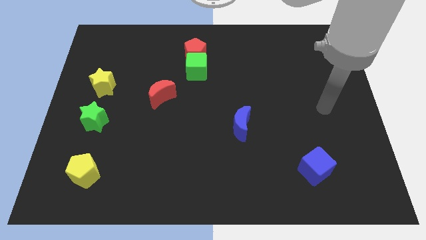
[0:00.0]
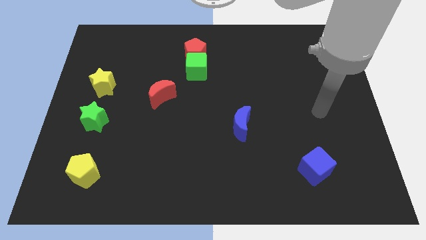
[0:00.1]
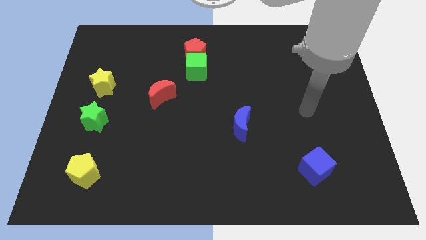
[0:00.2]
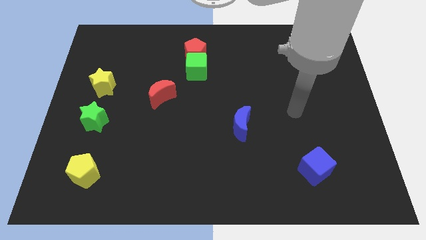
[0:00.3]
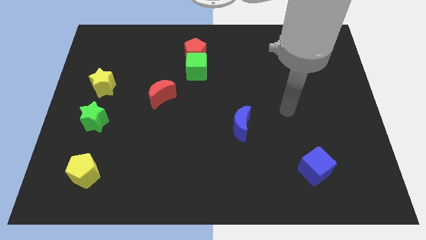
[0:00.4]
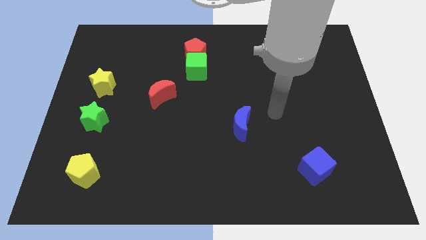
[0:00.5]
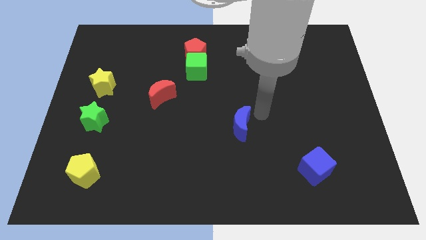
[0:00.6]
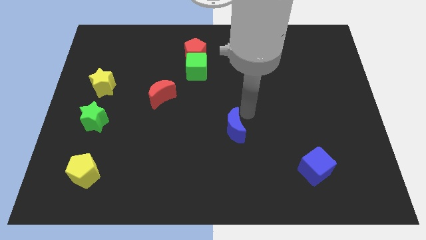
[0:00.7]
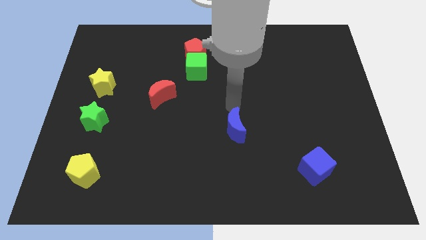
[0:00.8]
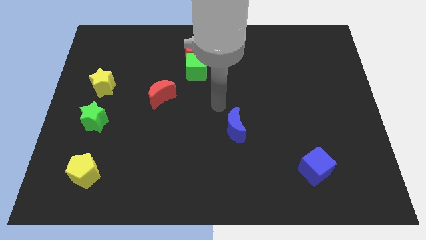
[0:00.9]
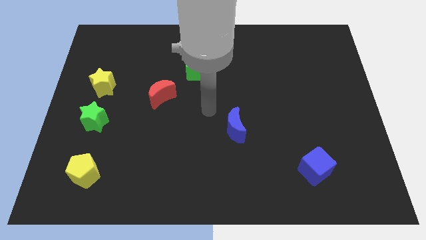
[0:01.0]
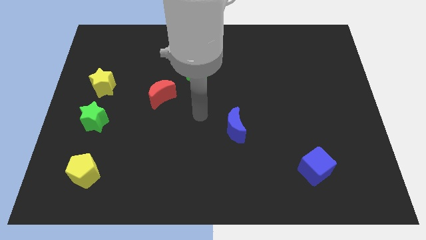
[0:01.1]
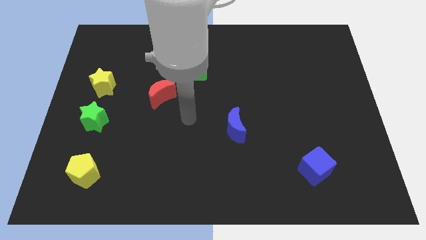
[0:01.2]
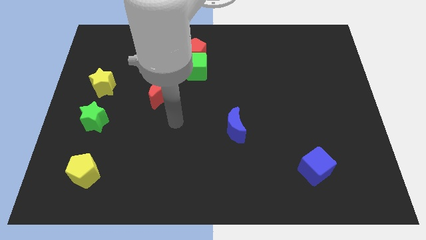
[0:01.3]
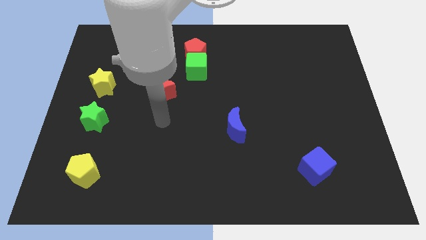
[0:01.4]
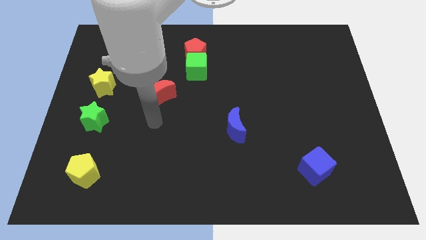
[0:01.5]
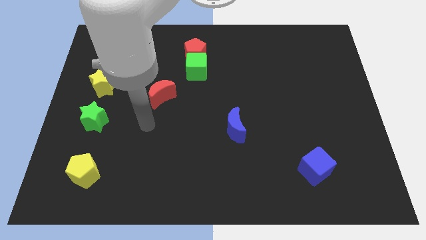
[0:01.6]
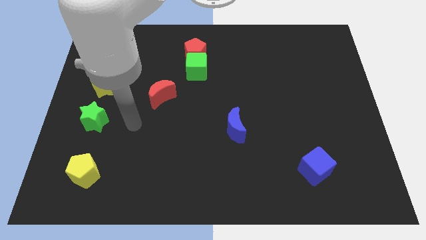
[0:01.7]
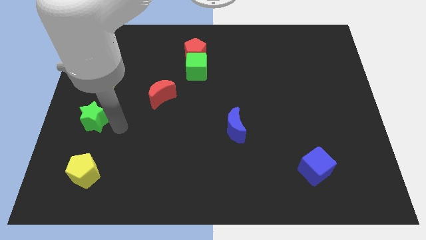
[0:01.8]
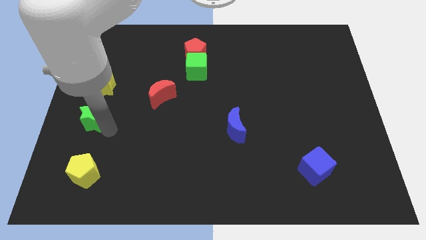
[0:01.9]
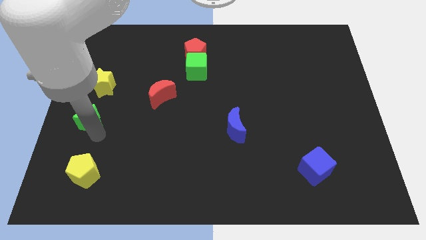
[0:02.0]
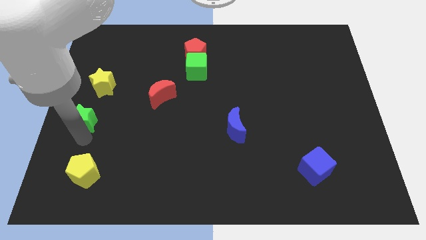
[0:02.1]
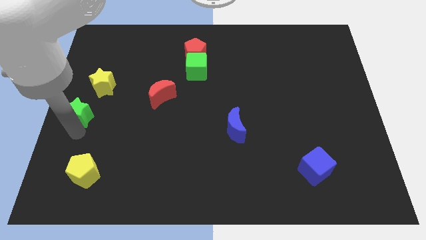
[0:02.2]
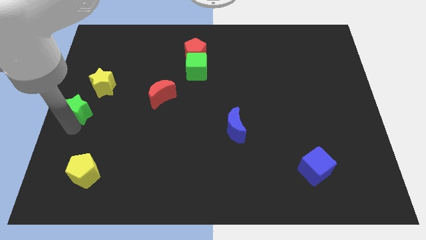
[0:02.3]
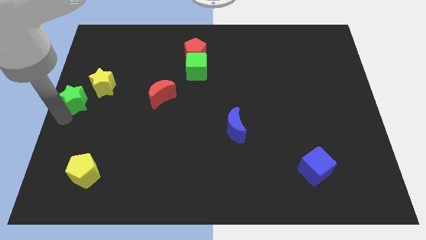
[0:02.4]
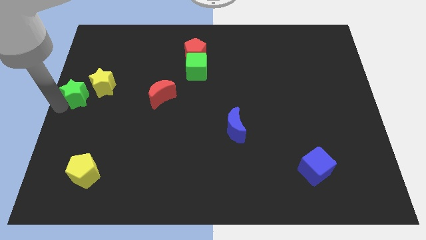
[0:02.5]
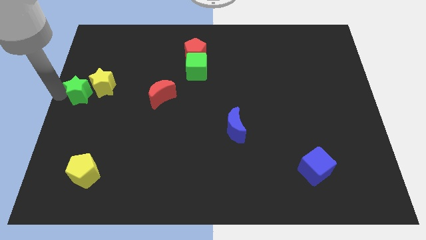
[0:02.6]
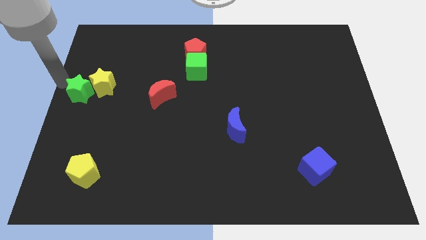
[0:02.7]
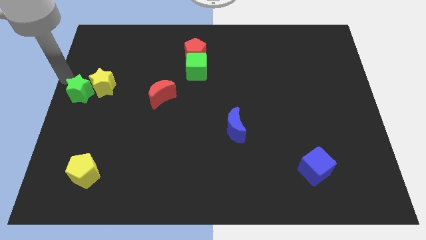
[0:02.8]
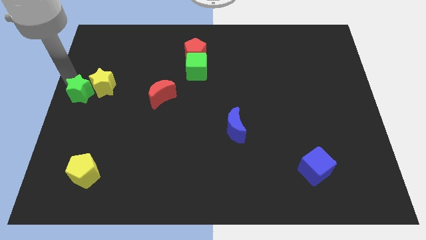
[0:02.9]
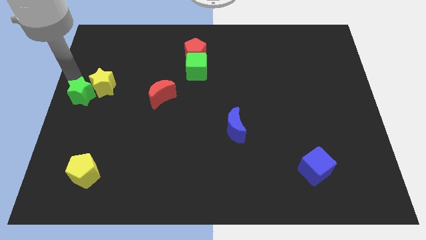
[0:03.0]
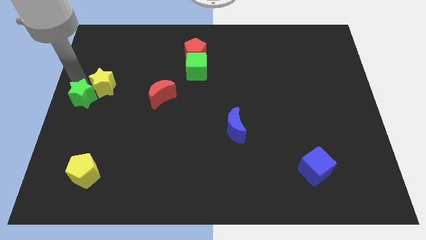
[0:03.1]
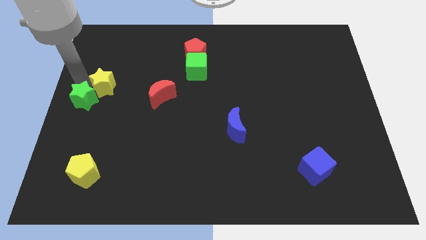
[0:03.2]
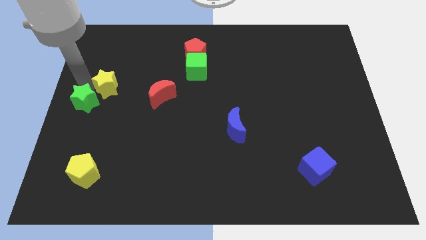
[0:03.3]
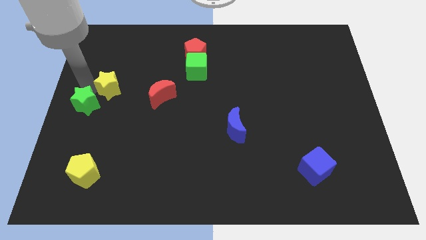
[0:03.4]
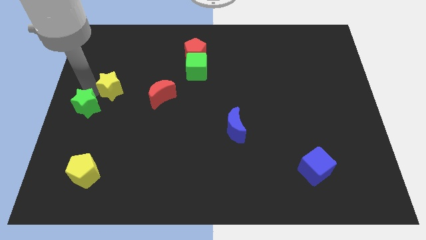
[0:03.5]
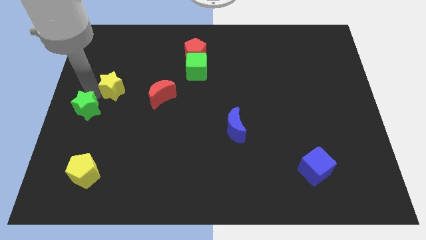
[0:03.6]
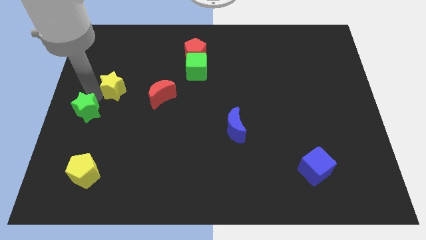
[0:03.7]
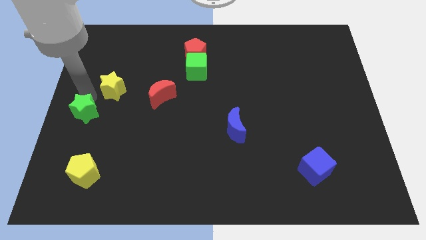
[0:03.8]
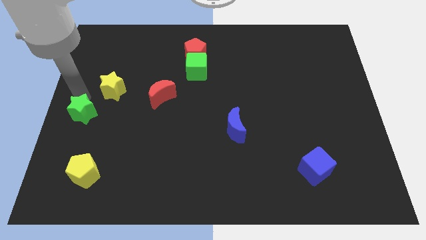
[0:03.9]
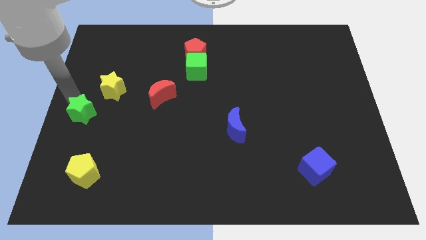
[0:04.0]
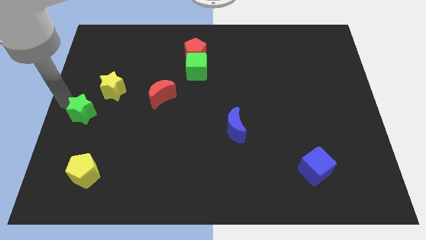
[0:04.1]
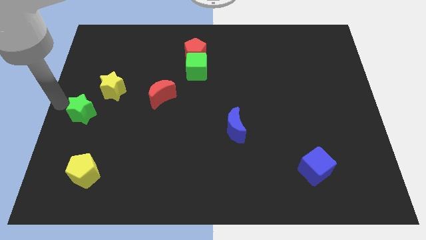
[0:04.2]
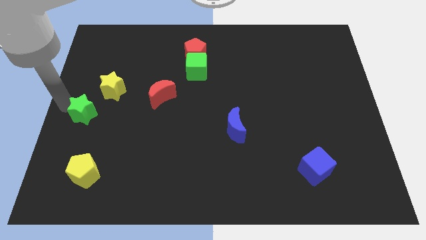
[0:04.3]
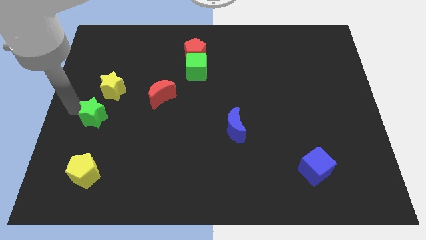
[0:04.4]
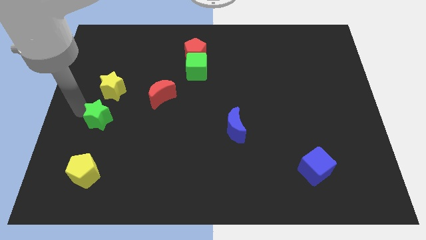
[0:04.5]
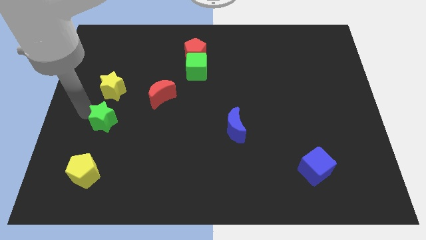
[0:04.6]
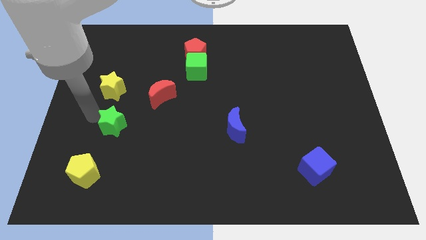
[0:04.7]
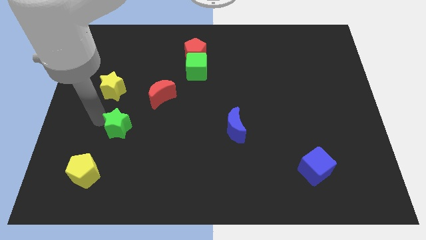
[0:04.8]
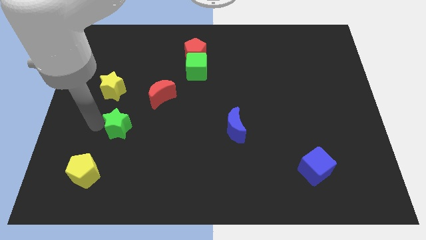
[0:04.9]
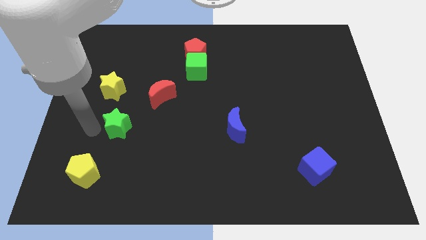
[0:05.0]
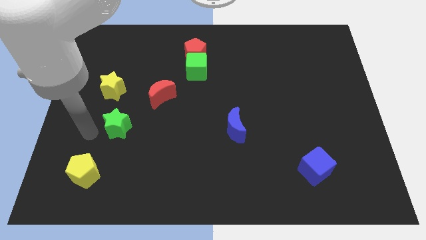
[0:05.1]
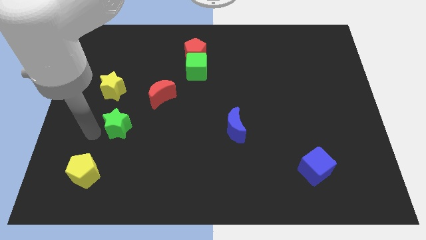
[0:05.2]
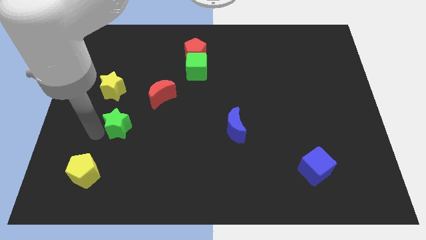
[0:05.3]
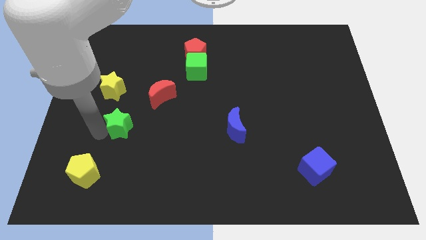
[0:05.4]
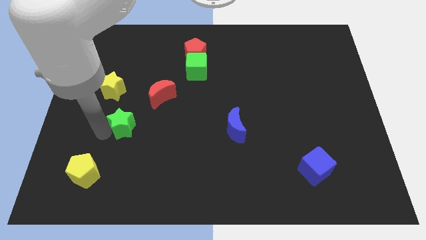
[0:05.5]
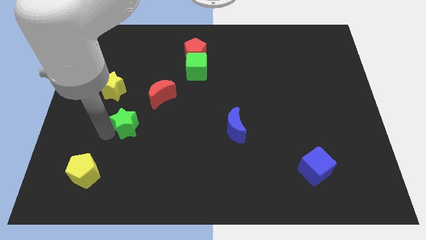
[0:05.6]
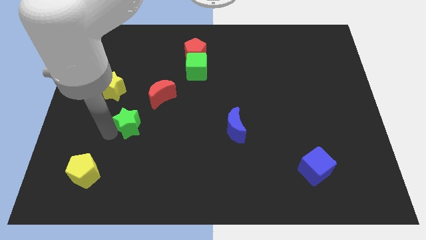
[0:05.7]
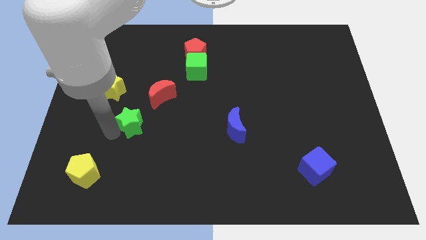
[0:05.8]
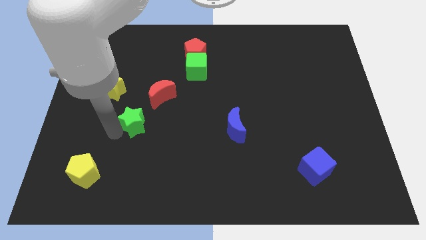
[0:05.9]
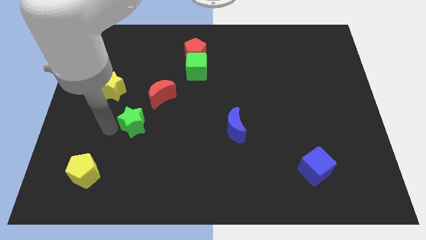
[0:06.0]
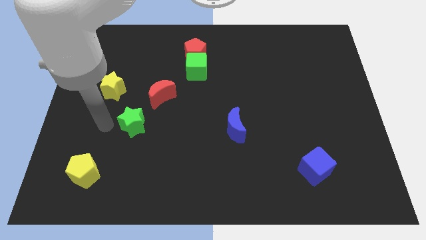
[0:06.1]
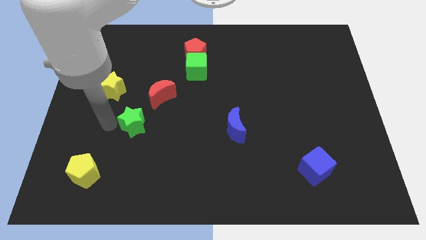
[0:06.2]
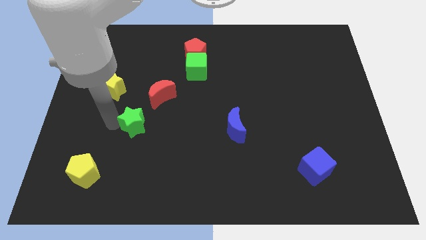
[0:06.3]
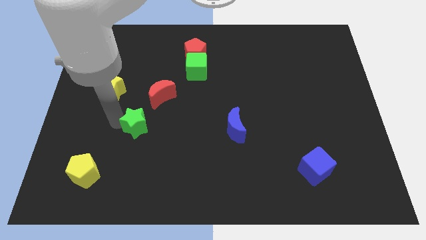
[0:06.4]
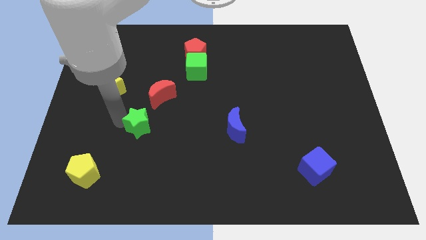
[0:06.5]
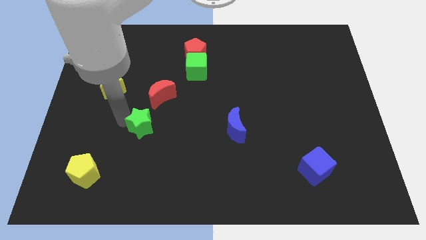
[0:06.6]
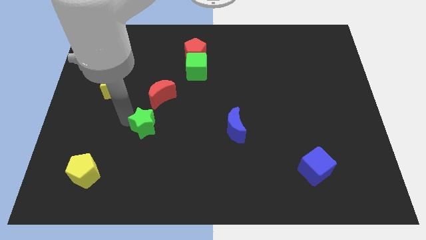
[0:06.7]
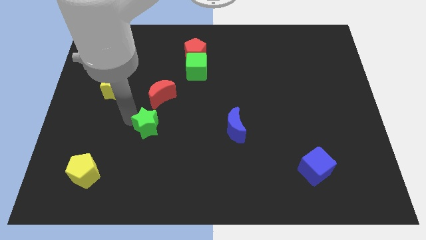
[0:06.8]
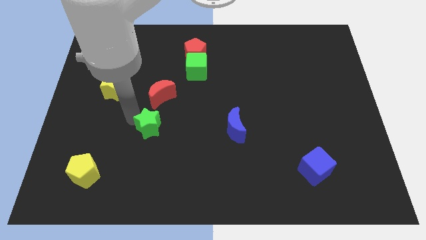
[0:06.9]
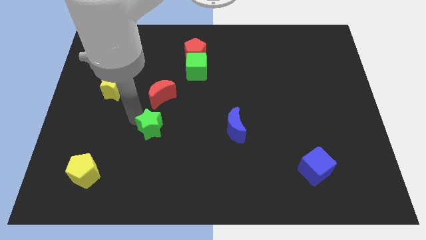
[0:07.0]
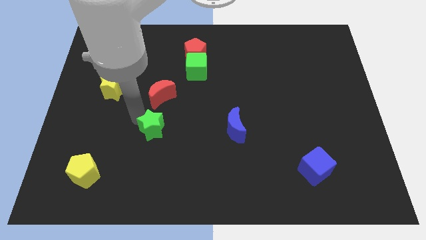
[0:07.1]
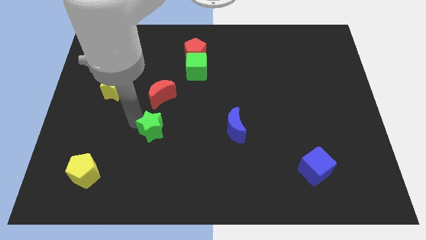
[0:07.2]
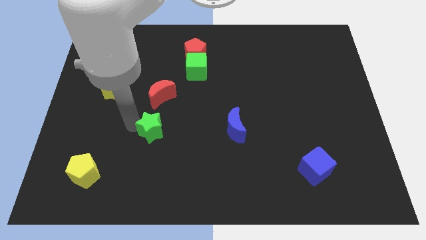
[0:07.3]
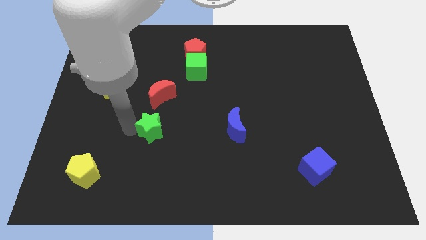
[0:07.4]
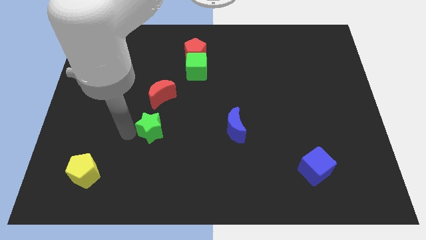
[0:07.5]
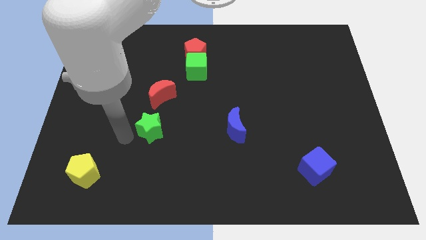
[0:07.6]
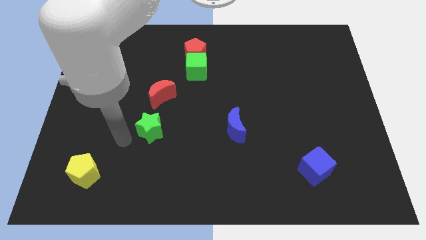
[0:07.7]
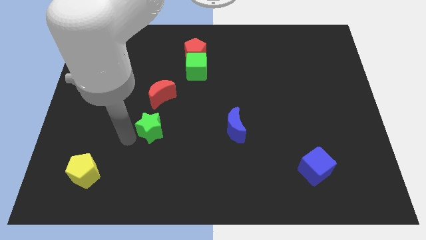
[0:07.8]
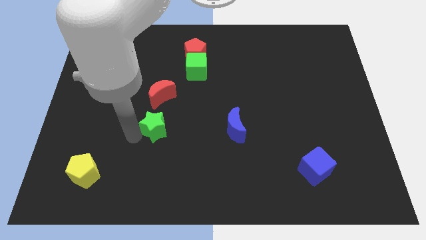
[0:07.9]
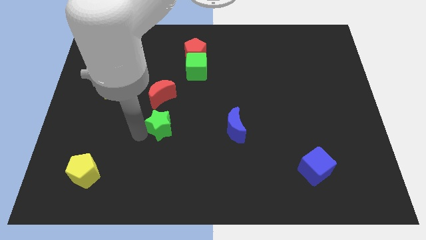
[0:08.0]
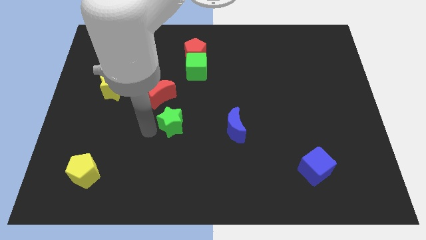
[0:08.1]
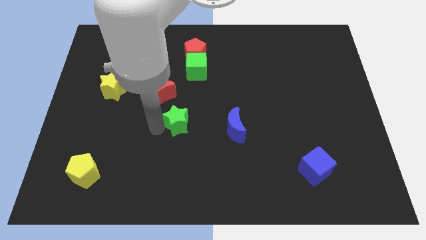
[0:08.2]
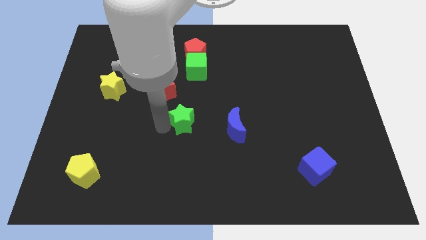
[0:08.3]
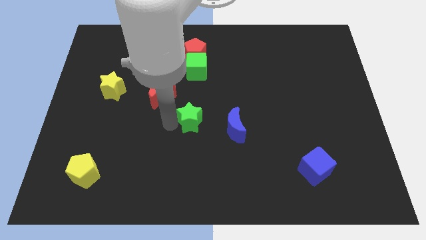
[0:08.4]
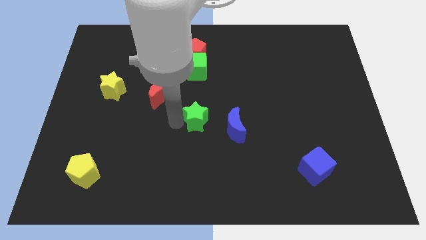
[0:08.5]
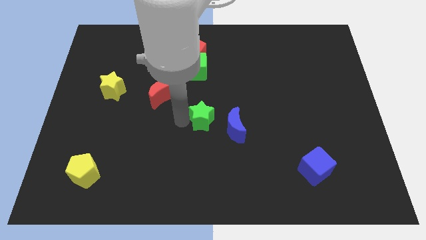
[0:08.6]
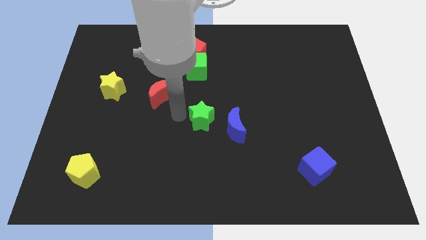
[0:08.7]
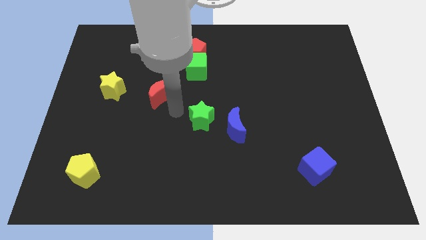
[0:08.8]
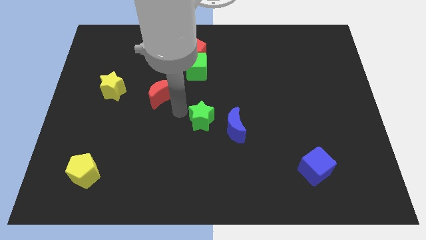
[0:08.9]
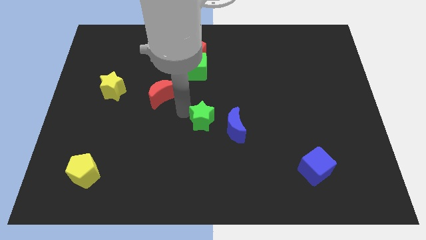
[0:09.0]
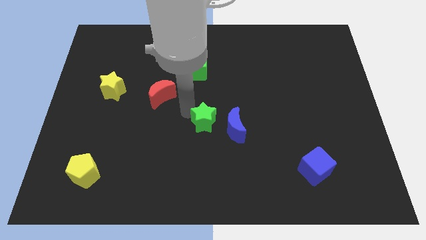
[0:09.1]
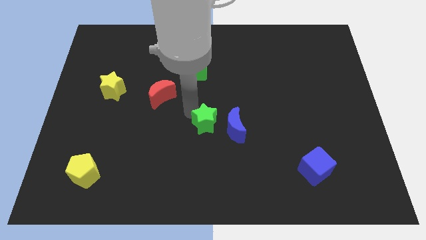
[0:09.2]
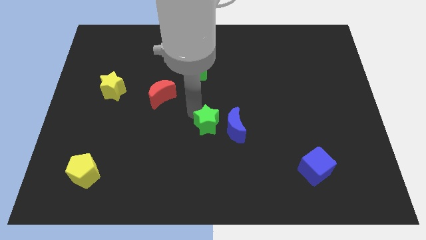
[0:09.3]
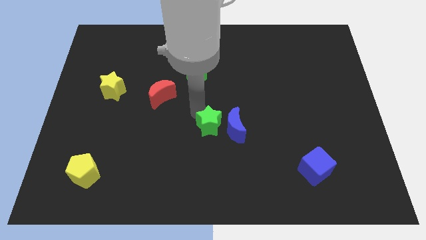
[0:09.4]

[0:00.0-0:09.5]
slide the green star towards the blue moon
